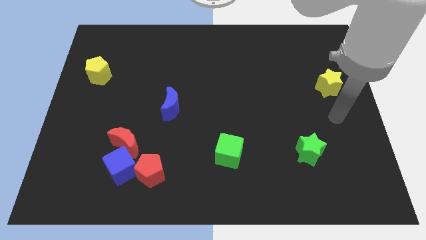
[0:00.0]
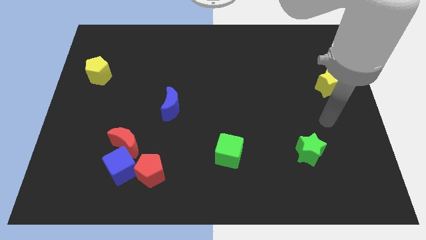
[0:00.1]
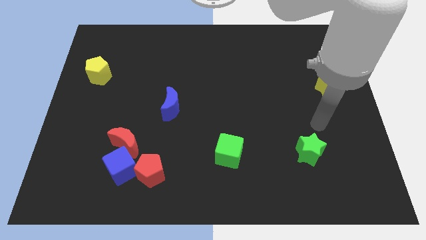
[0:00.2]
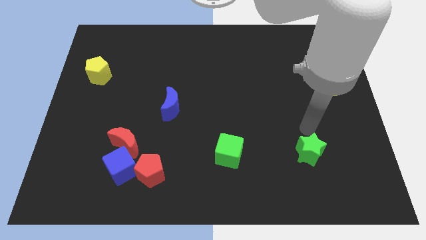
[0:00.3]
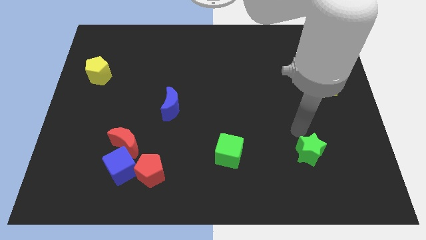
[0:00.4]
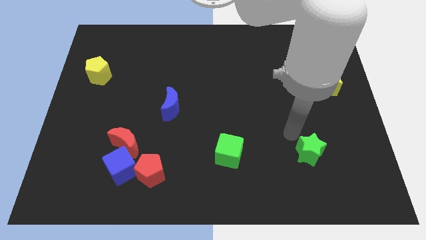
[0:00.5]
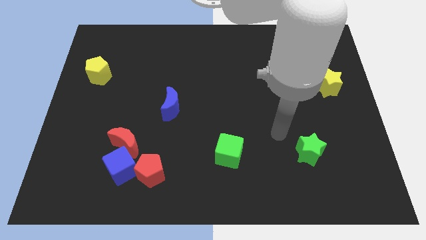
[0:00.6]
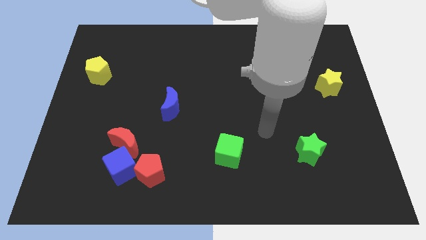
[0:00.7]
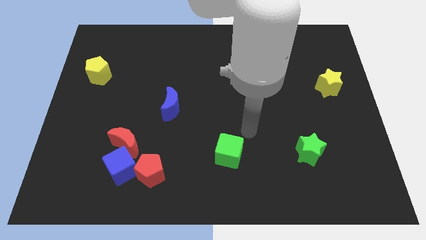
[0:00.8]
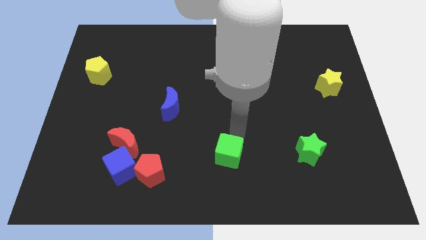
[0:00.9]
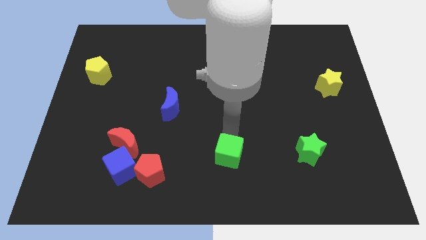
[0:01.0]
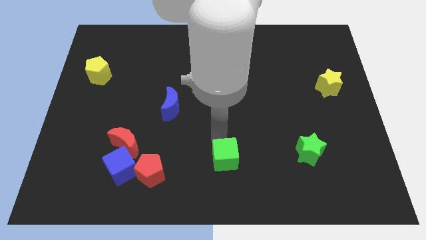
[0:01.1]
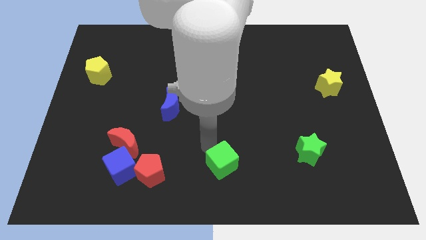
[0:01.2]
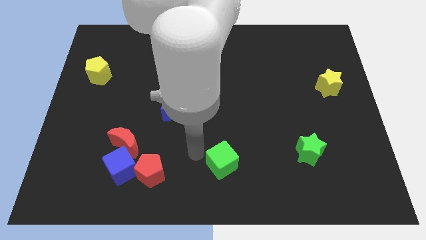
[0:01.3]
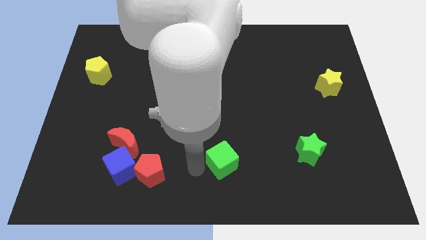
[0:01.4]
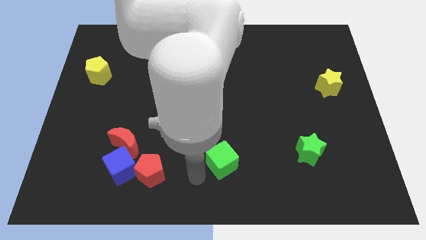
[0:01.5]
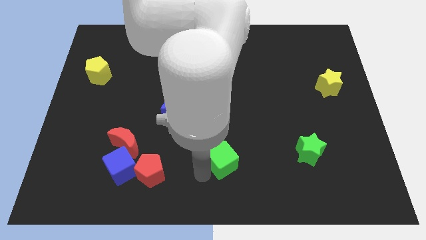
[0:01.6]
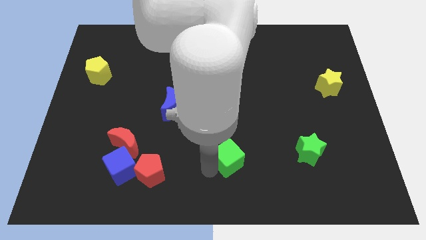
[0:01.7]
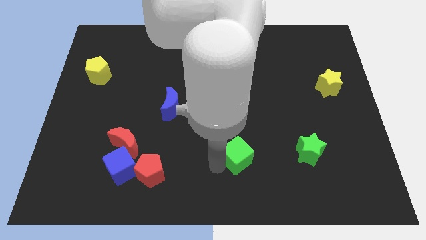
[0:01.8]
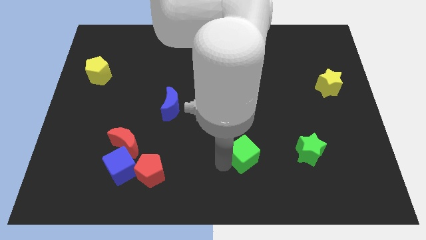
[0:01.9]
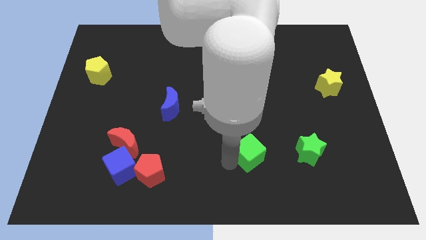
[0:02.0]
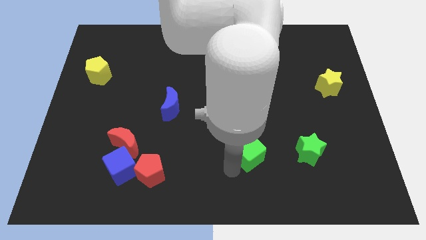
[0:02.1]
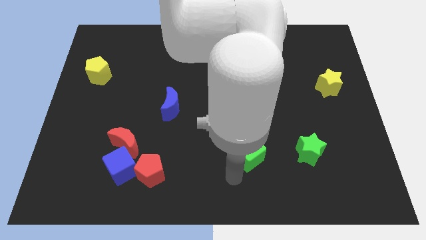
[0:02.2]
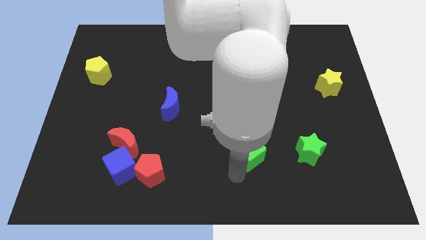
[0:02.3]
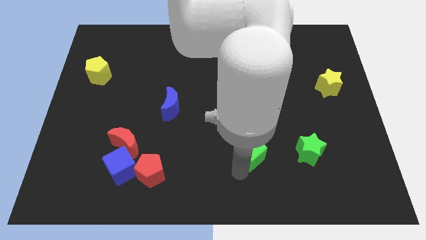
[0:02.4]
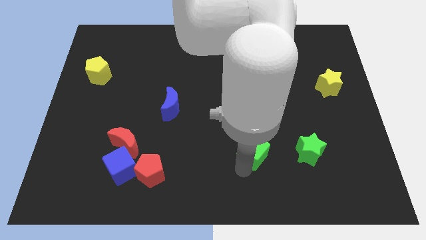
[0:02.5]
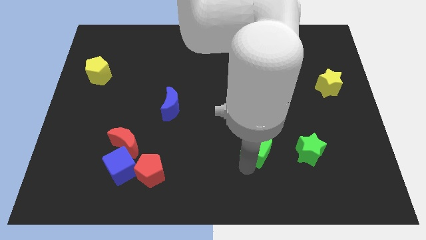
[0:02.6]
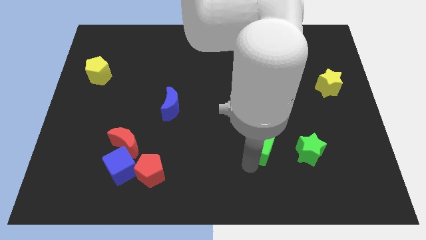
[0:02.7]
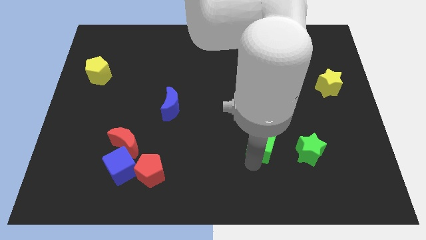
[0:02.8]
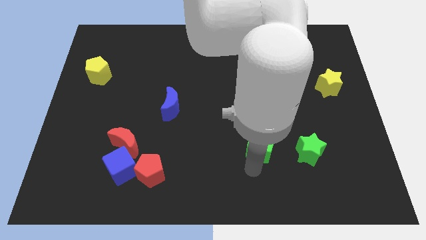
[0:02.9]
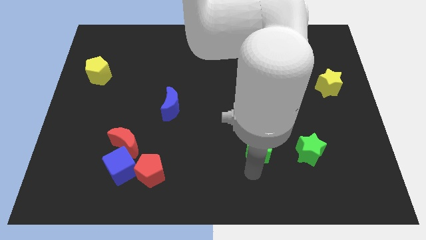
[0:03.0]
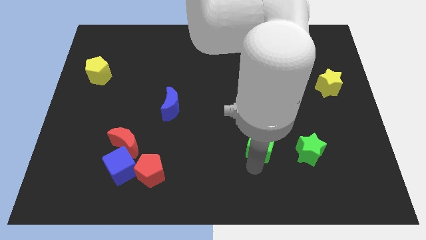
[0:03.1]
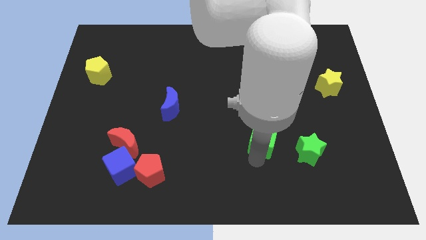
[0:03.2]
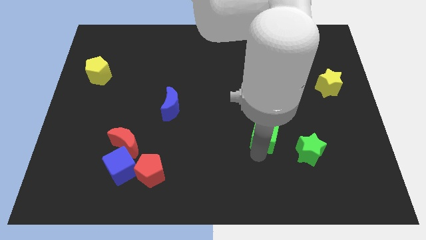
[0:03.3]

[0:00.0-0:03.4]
push the green cube up and right slightly

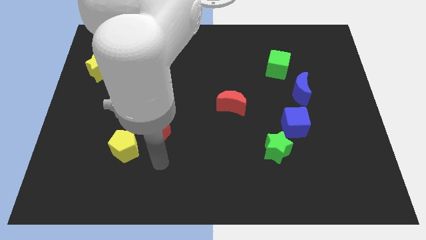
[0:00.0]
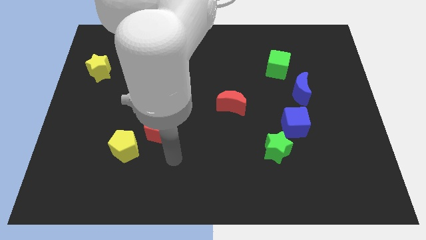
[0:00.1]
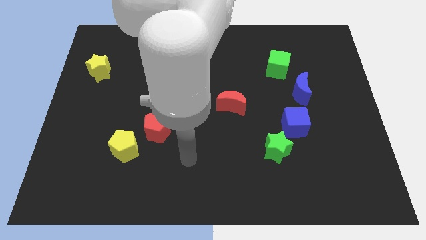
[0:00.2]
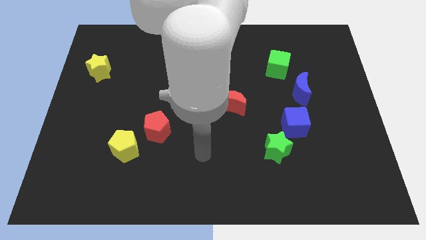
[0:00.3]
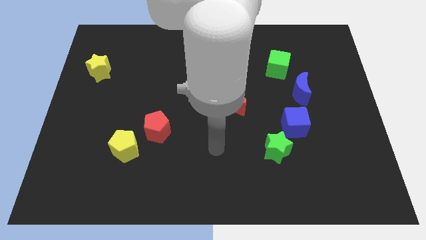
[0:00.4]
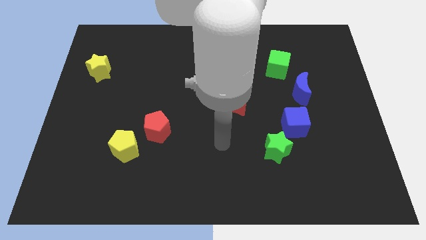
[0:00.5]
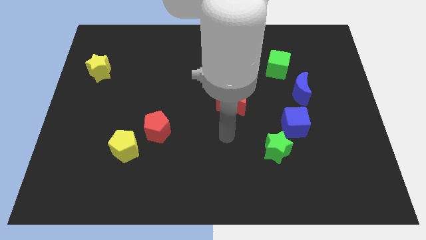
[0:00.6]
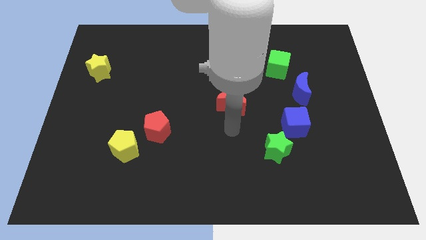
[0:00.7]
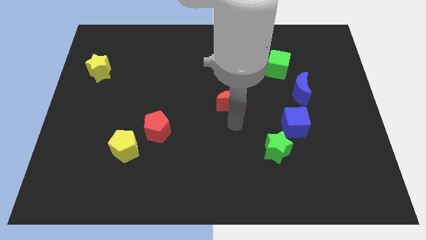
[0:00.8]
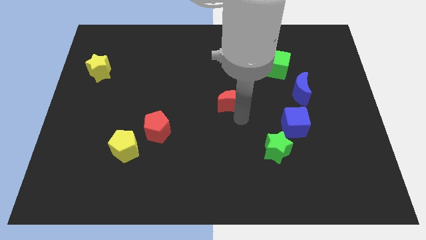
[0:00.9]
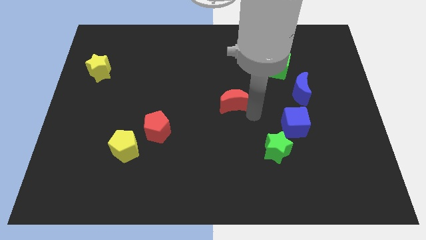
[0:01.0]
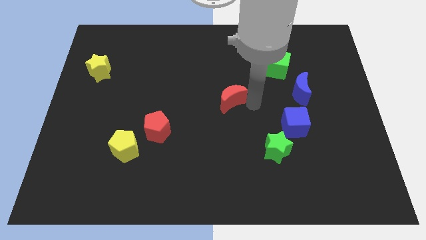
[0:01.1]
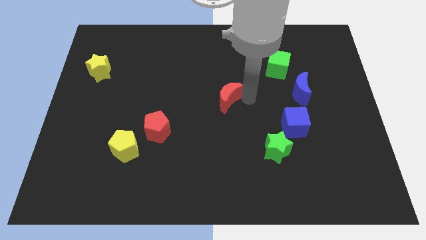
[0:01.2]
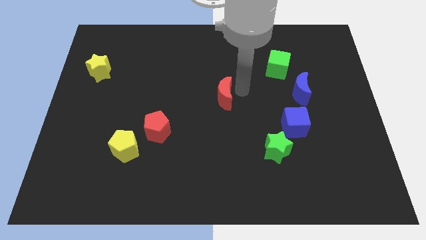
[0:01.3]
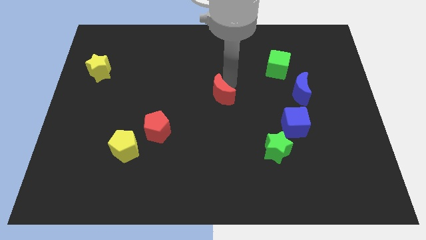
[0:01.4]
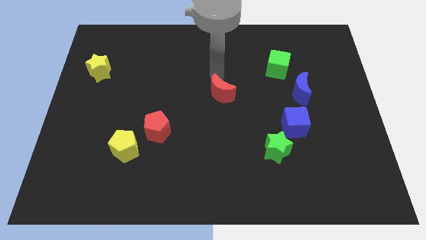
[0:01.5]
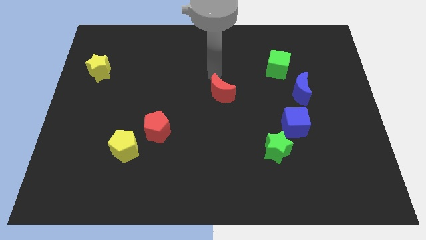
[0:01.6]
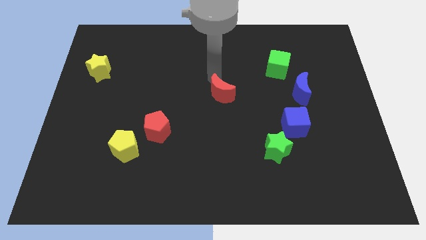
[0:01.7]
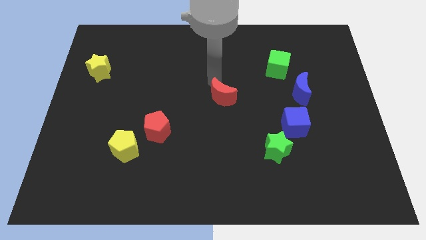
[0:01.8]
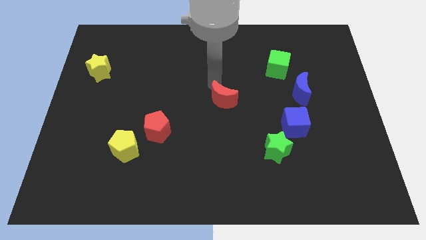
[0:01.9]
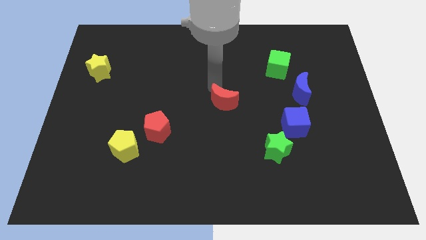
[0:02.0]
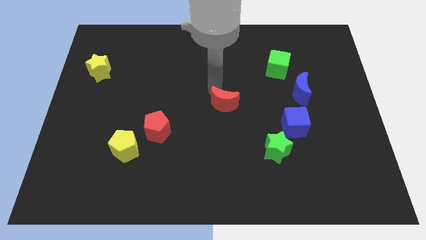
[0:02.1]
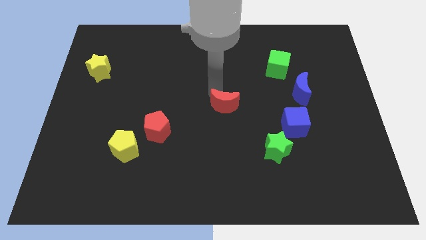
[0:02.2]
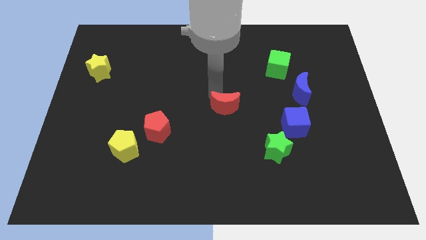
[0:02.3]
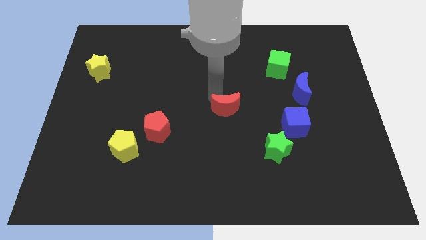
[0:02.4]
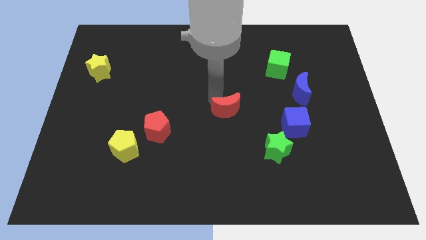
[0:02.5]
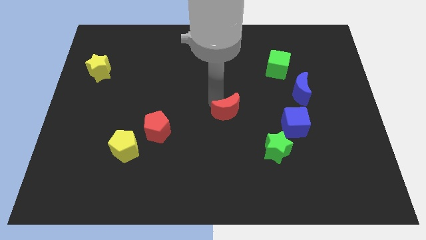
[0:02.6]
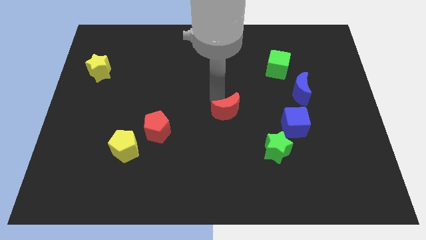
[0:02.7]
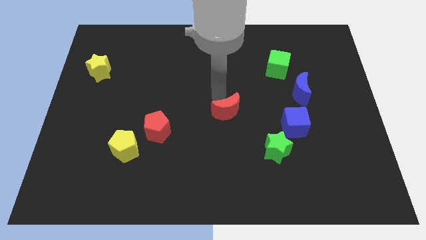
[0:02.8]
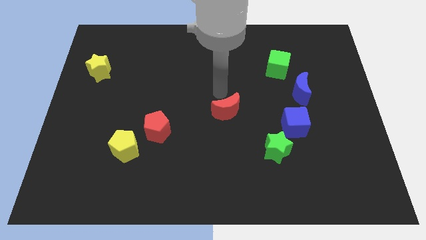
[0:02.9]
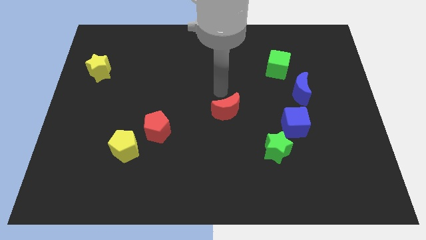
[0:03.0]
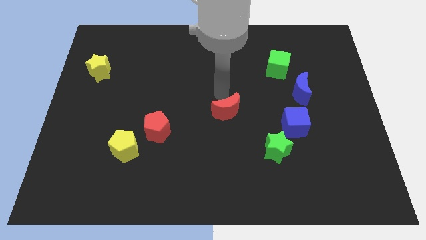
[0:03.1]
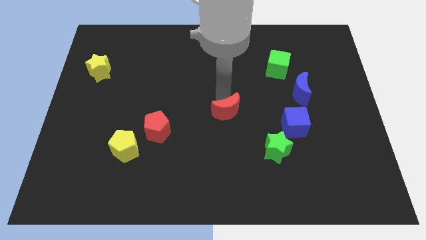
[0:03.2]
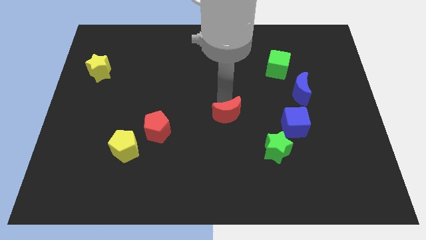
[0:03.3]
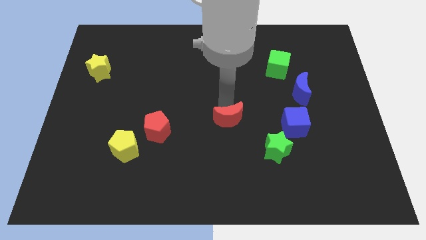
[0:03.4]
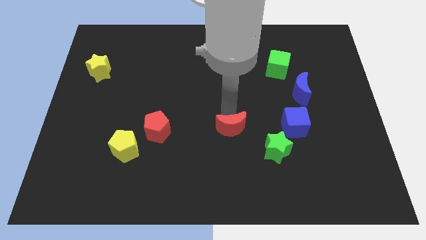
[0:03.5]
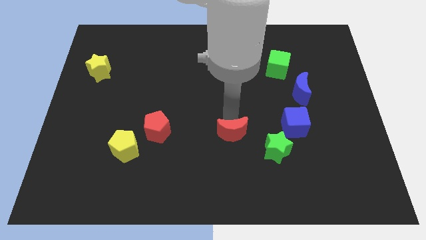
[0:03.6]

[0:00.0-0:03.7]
slightly move the red moon downwards

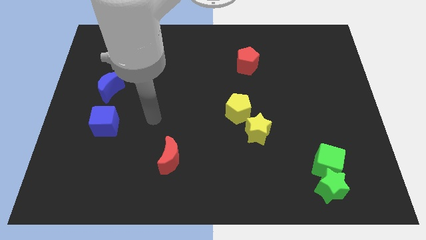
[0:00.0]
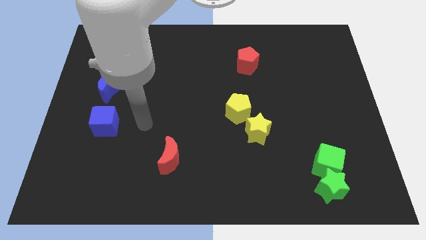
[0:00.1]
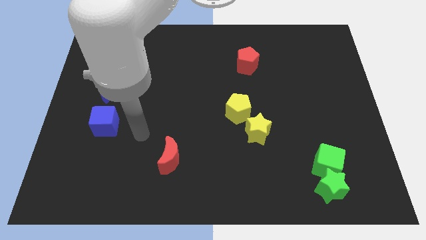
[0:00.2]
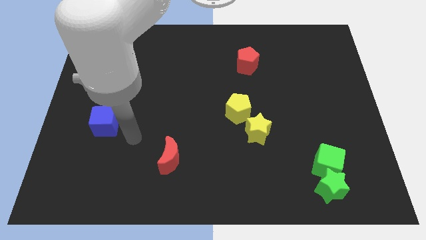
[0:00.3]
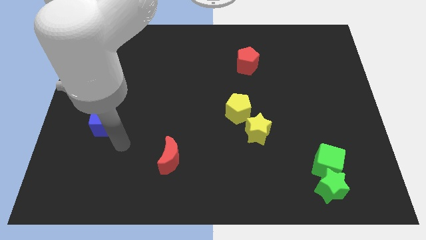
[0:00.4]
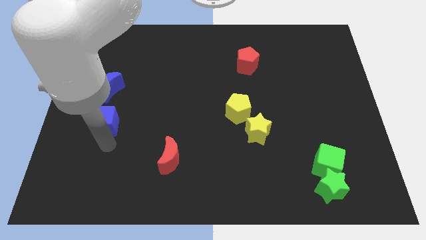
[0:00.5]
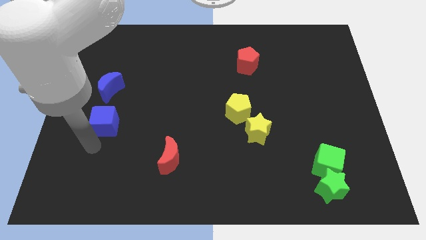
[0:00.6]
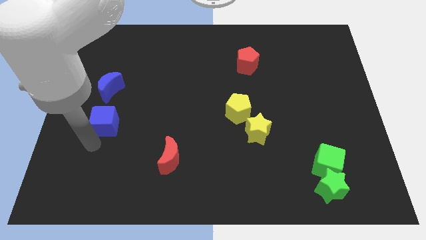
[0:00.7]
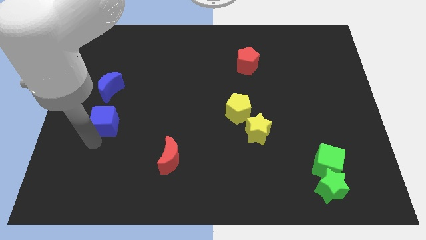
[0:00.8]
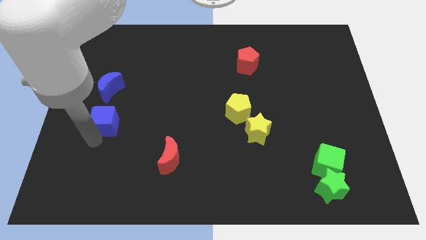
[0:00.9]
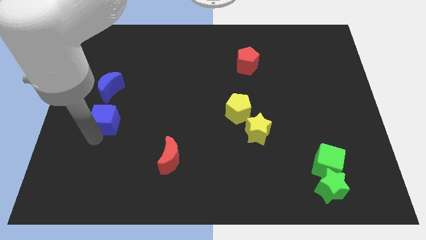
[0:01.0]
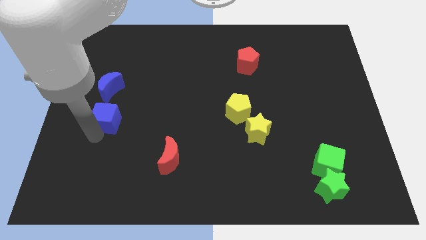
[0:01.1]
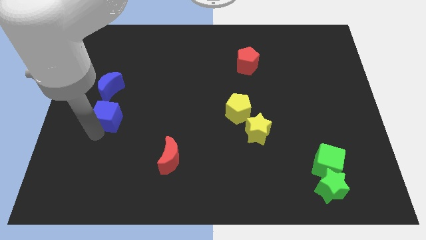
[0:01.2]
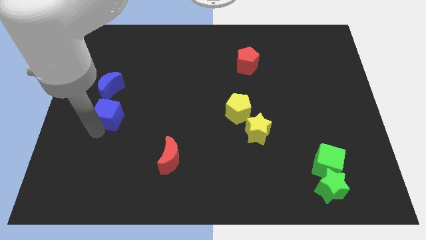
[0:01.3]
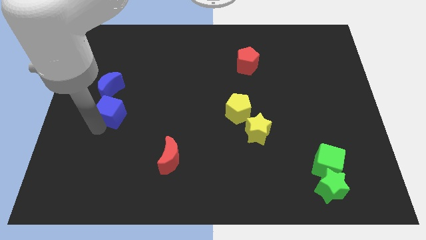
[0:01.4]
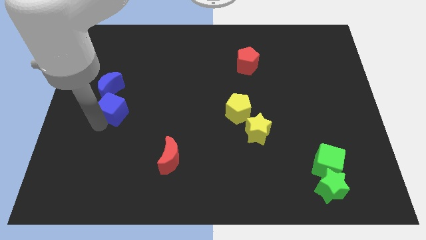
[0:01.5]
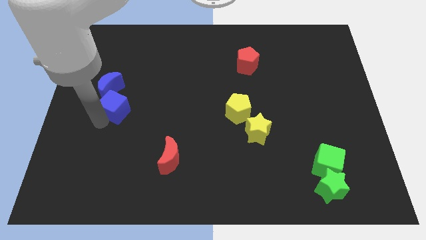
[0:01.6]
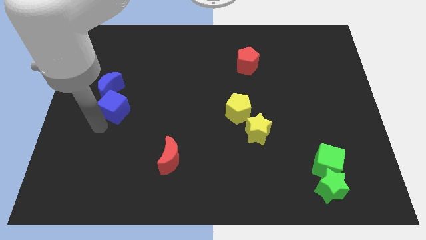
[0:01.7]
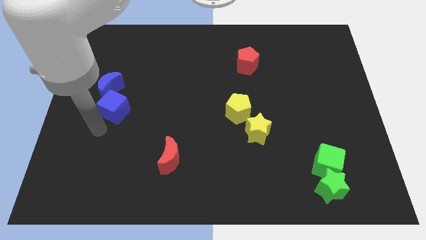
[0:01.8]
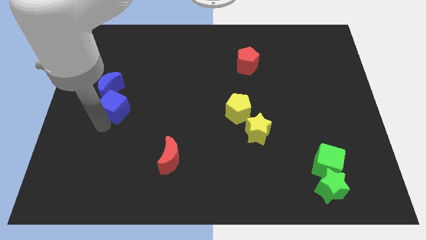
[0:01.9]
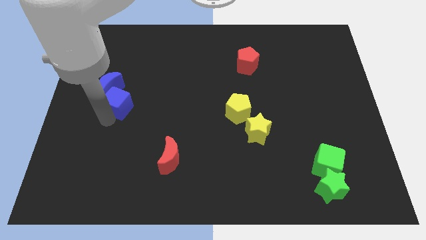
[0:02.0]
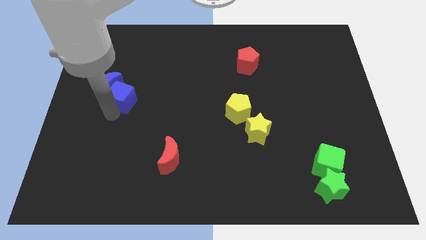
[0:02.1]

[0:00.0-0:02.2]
slightly push the blue cube up
